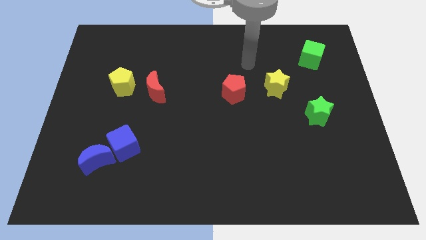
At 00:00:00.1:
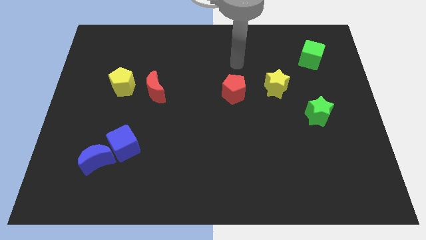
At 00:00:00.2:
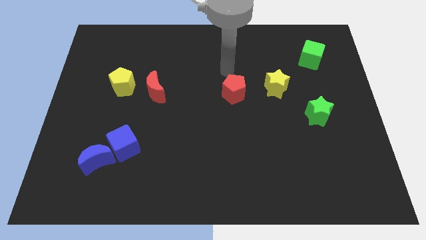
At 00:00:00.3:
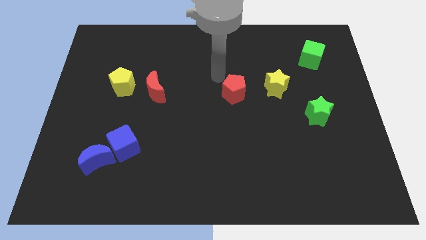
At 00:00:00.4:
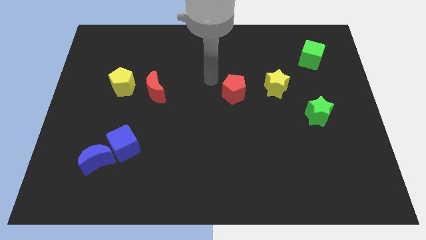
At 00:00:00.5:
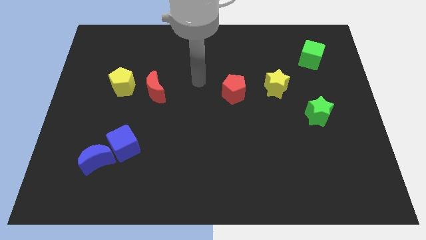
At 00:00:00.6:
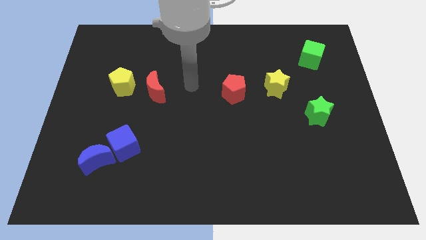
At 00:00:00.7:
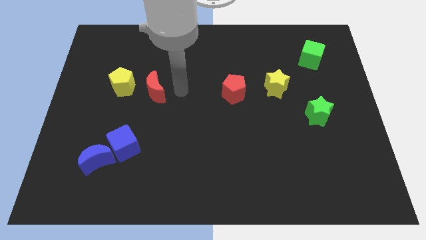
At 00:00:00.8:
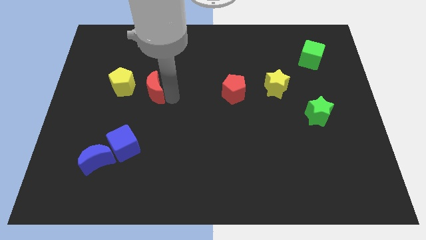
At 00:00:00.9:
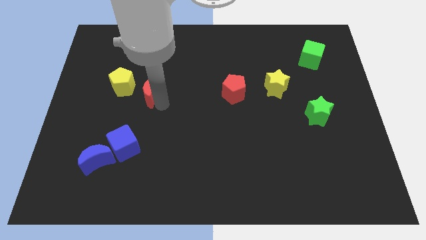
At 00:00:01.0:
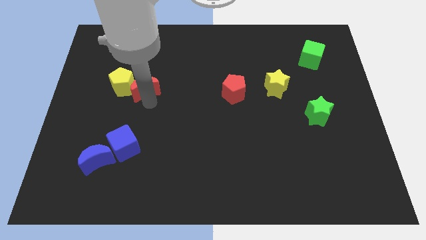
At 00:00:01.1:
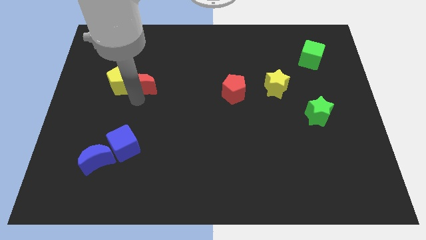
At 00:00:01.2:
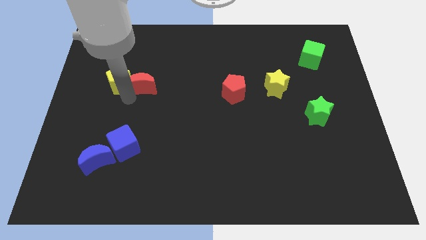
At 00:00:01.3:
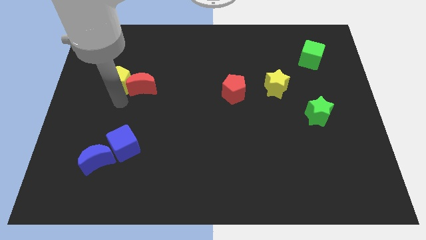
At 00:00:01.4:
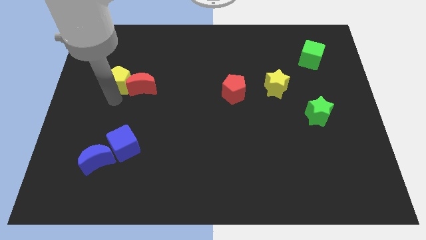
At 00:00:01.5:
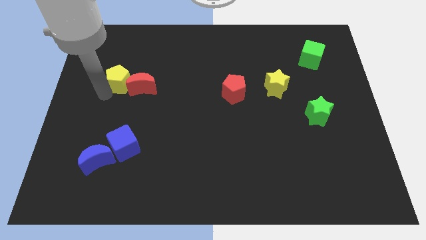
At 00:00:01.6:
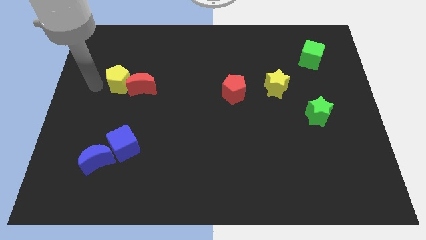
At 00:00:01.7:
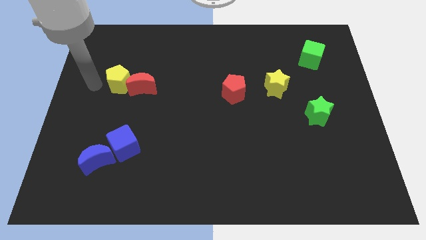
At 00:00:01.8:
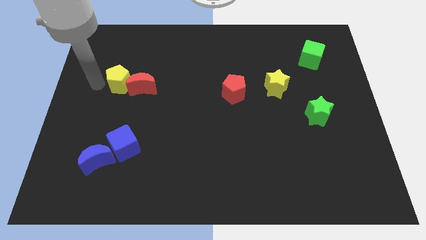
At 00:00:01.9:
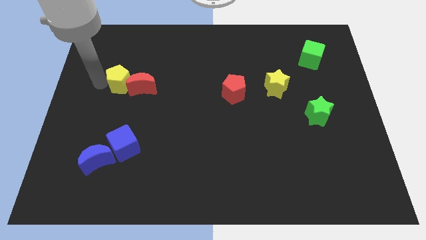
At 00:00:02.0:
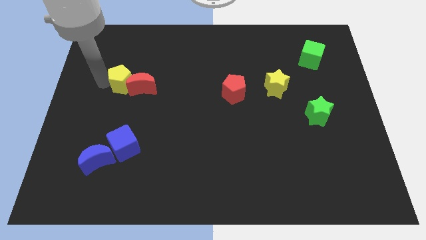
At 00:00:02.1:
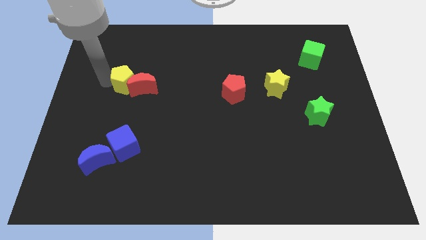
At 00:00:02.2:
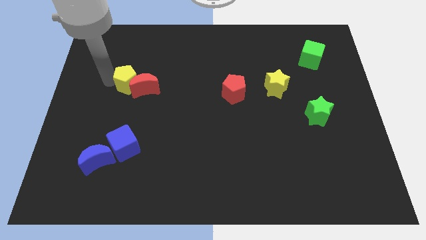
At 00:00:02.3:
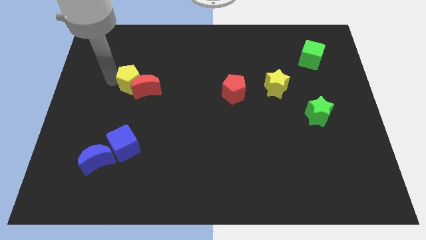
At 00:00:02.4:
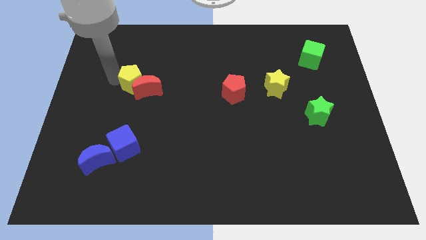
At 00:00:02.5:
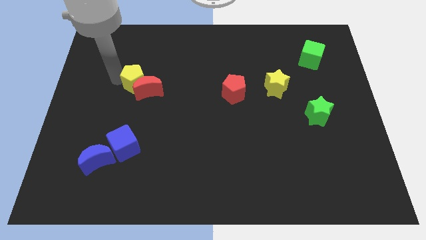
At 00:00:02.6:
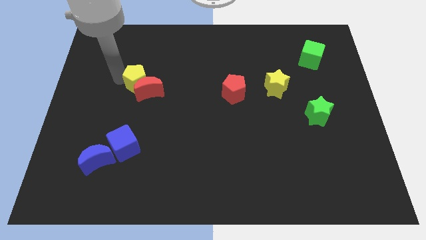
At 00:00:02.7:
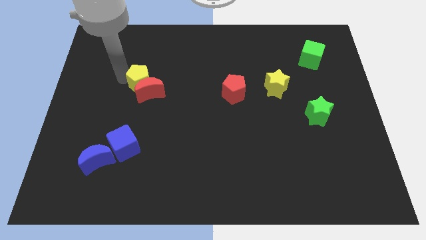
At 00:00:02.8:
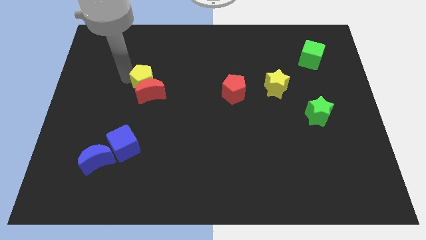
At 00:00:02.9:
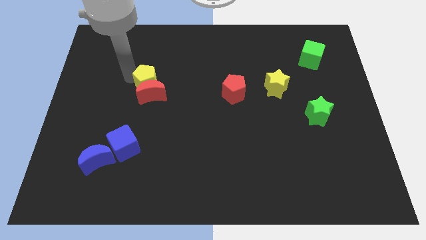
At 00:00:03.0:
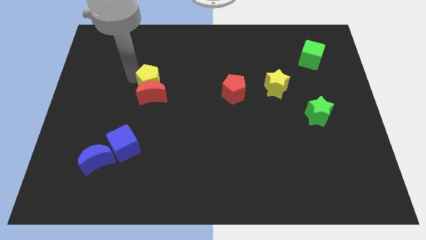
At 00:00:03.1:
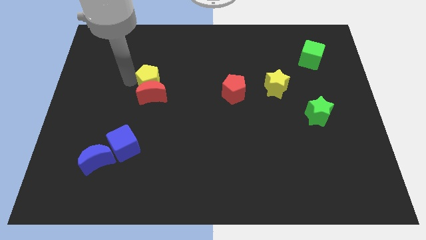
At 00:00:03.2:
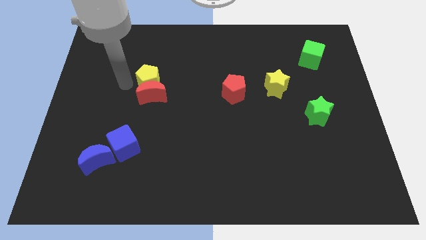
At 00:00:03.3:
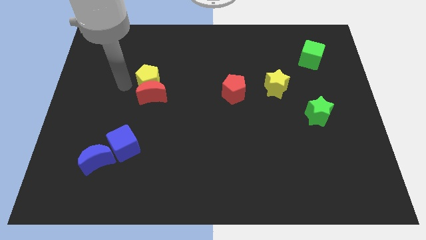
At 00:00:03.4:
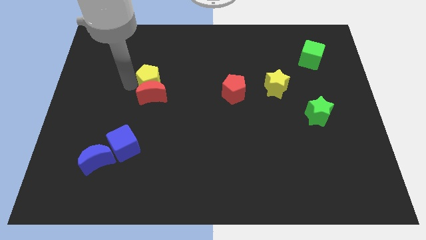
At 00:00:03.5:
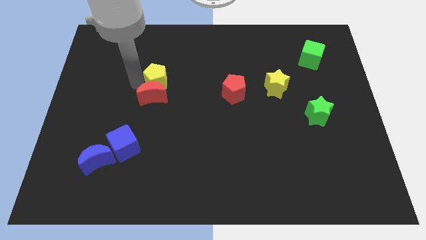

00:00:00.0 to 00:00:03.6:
slide the yellow pentagon to the right a little

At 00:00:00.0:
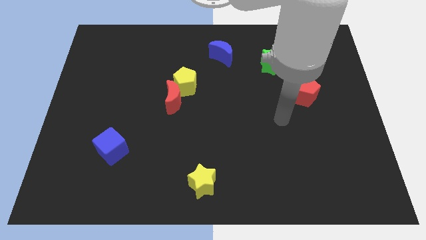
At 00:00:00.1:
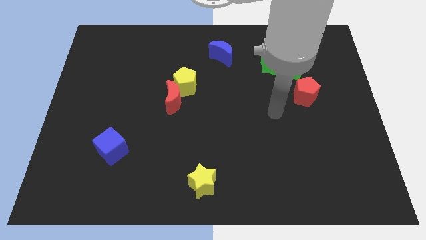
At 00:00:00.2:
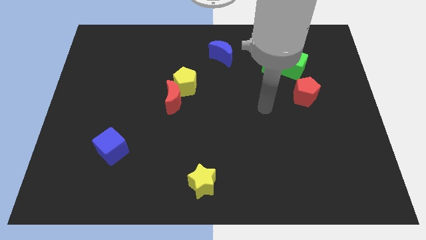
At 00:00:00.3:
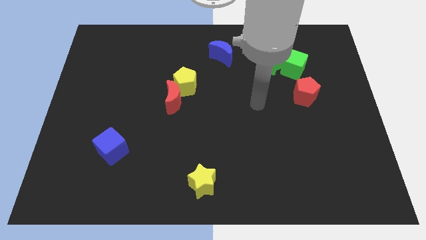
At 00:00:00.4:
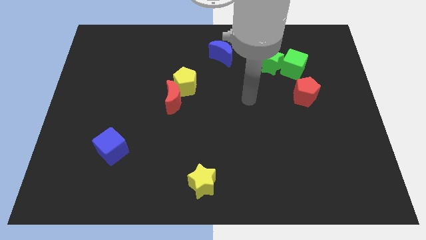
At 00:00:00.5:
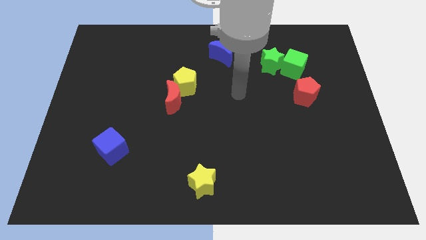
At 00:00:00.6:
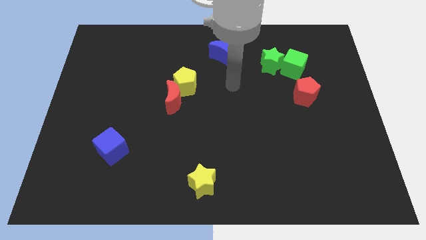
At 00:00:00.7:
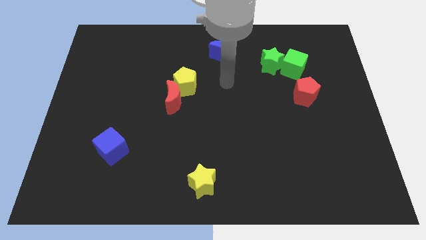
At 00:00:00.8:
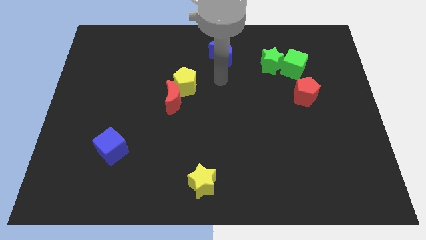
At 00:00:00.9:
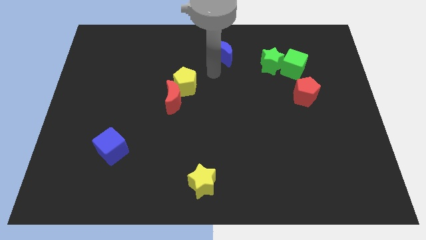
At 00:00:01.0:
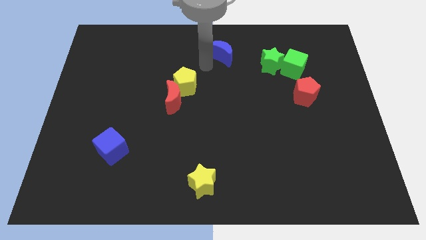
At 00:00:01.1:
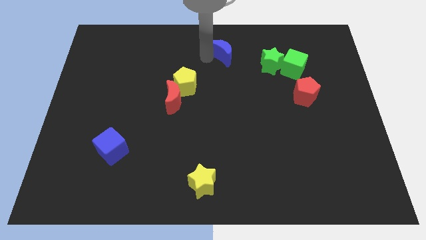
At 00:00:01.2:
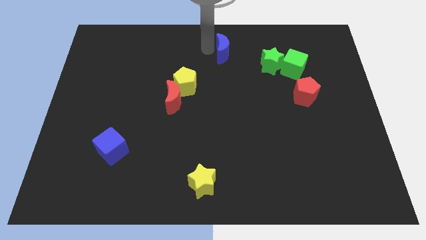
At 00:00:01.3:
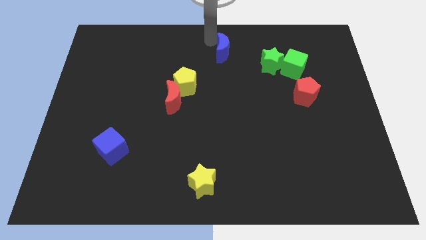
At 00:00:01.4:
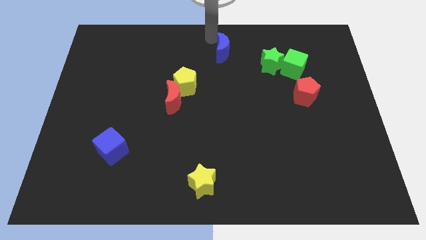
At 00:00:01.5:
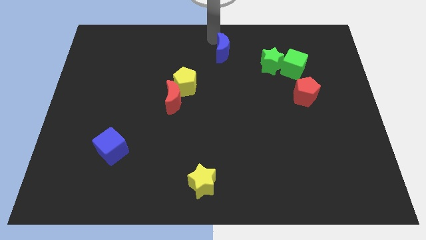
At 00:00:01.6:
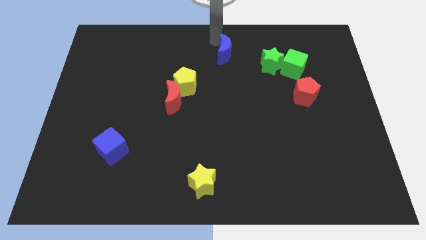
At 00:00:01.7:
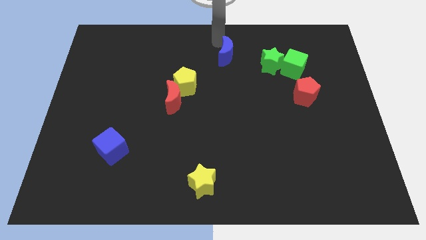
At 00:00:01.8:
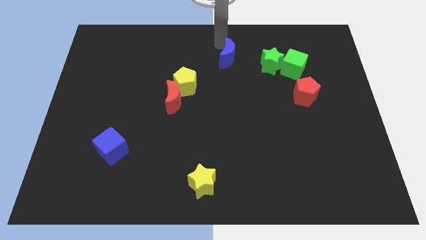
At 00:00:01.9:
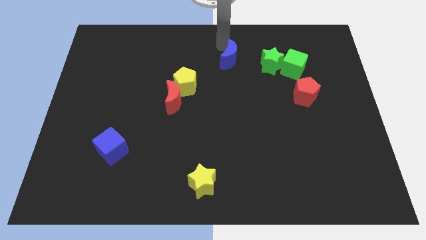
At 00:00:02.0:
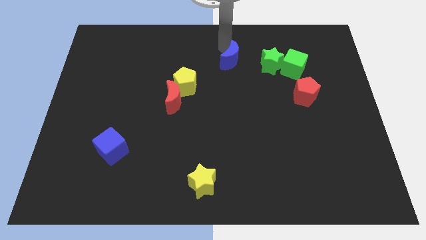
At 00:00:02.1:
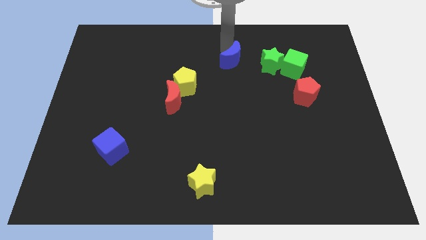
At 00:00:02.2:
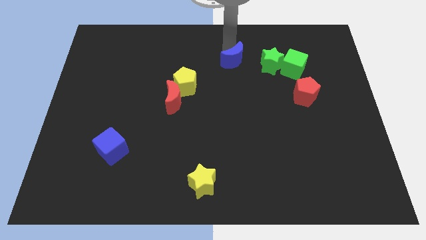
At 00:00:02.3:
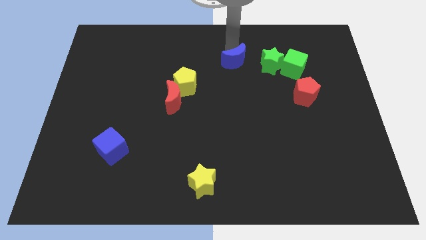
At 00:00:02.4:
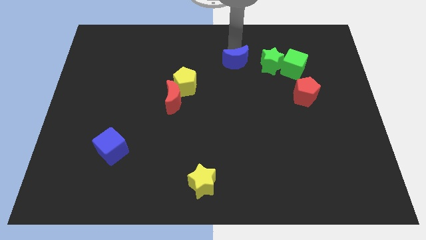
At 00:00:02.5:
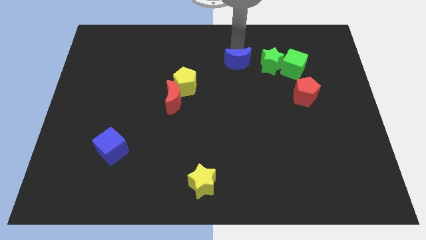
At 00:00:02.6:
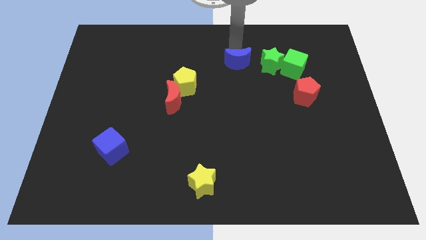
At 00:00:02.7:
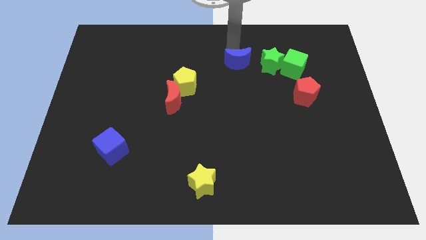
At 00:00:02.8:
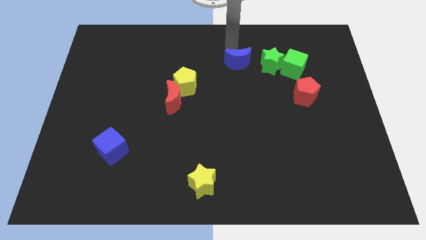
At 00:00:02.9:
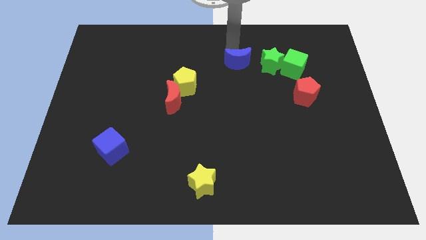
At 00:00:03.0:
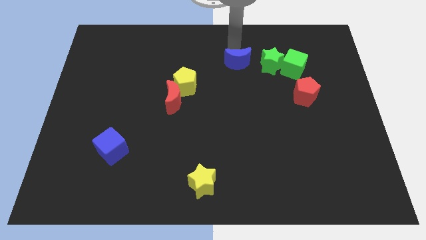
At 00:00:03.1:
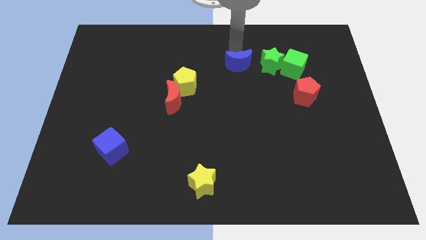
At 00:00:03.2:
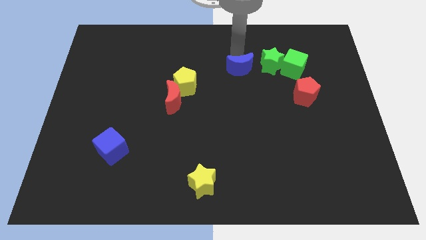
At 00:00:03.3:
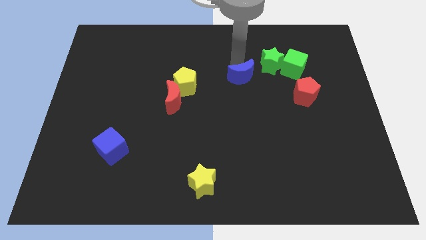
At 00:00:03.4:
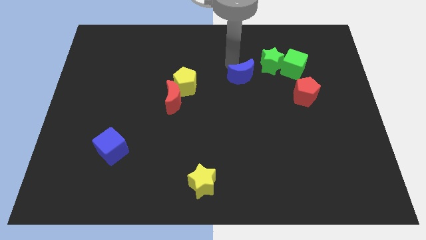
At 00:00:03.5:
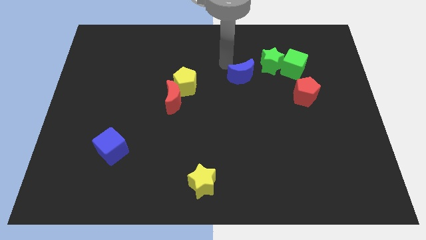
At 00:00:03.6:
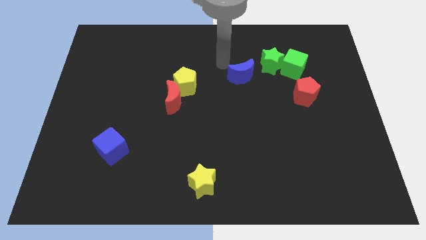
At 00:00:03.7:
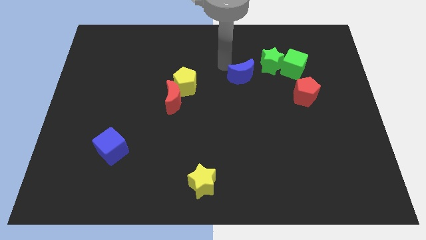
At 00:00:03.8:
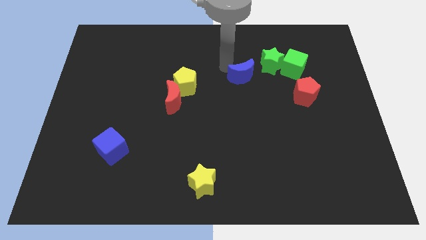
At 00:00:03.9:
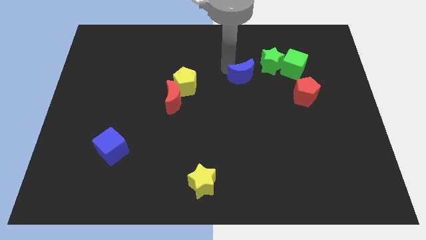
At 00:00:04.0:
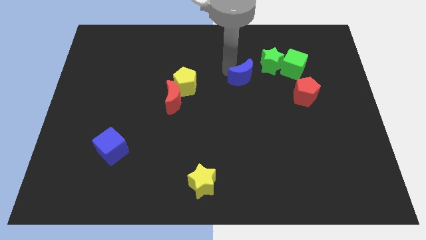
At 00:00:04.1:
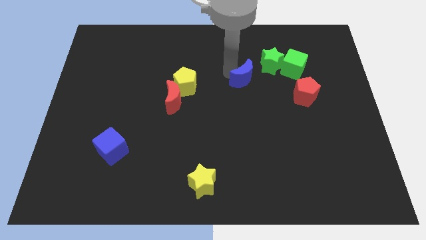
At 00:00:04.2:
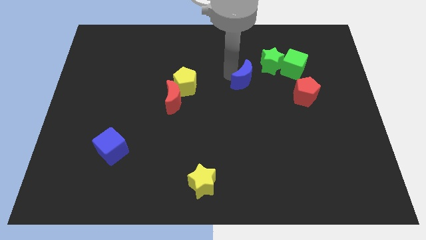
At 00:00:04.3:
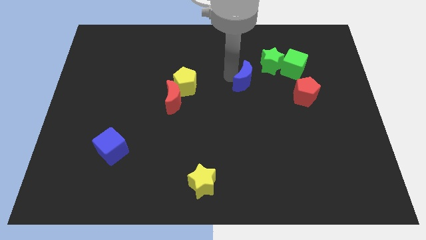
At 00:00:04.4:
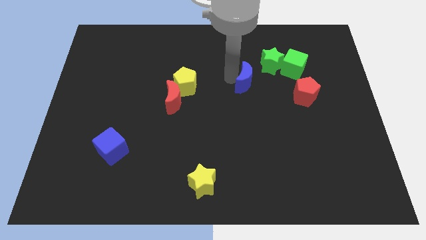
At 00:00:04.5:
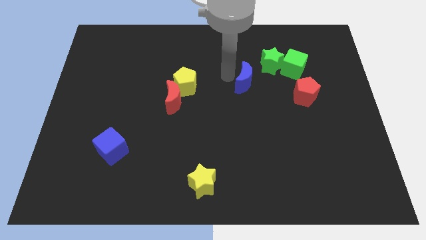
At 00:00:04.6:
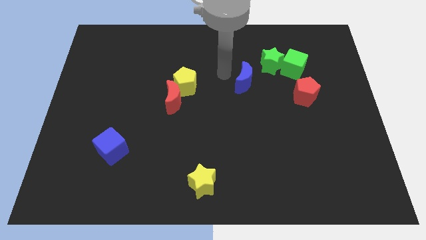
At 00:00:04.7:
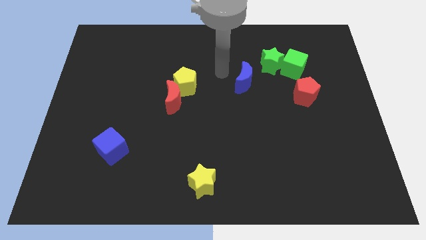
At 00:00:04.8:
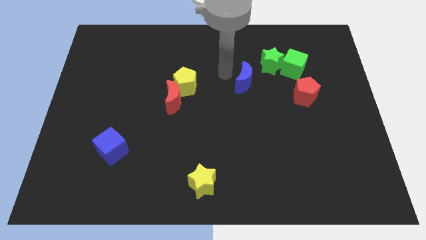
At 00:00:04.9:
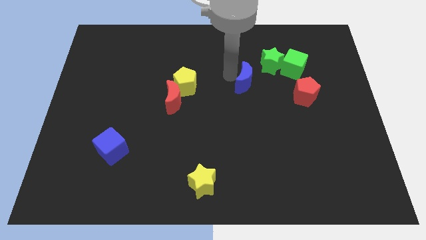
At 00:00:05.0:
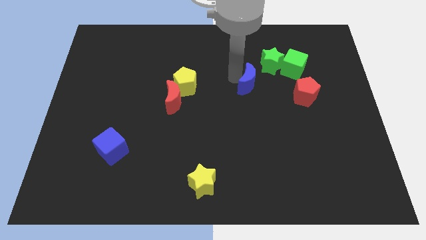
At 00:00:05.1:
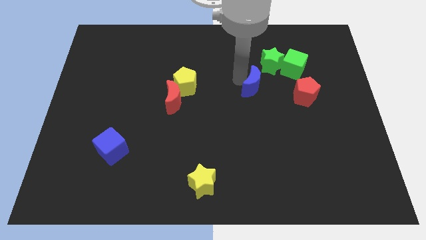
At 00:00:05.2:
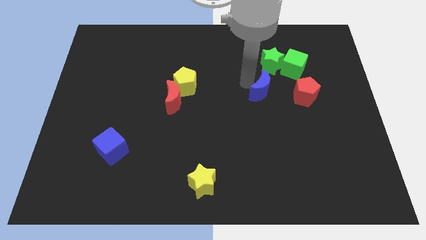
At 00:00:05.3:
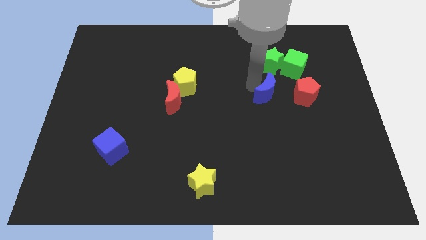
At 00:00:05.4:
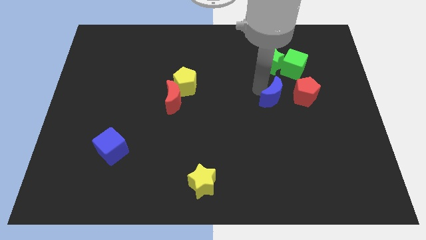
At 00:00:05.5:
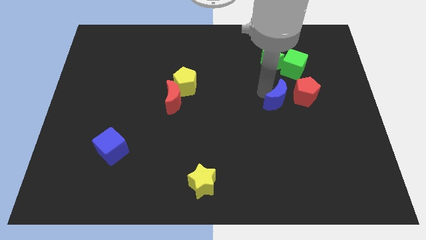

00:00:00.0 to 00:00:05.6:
push the blue moon downwards and right
